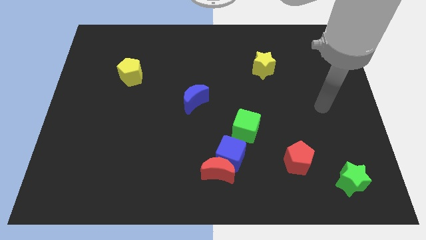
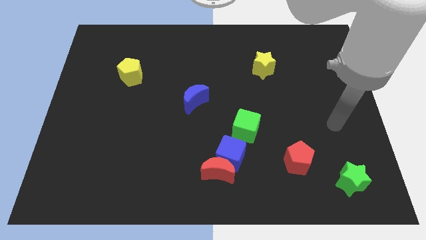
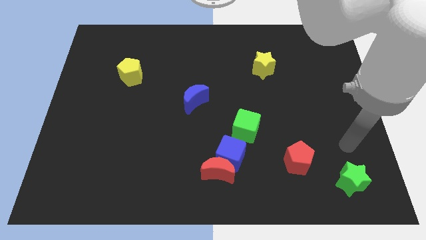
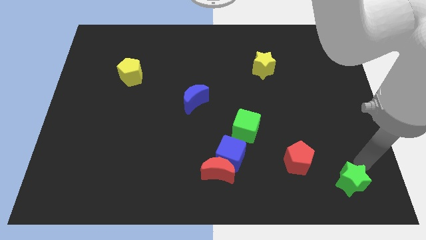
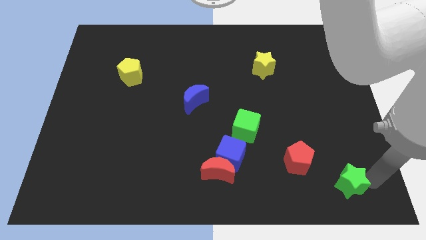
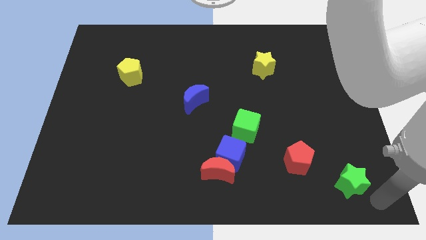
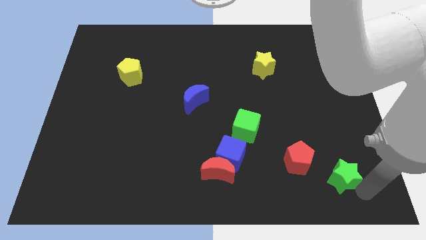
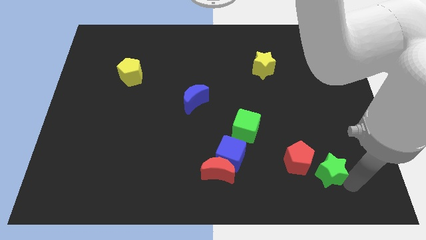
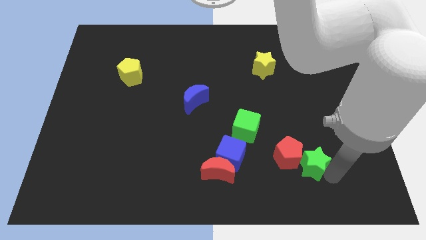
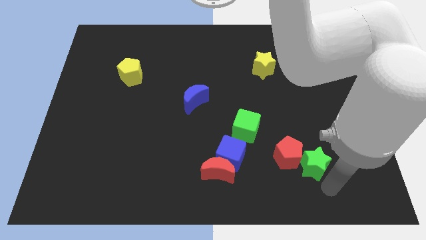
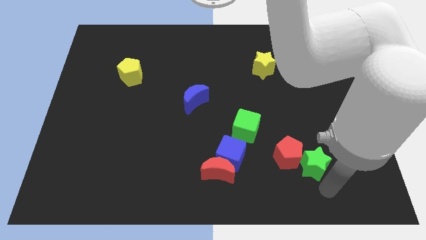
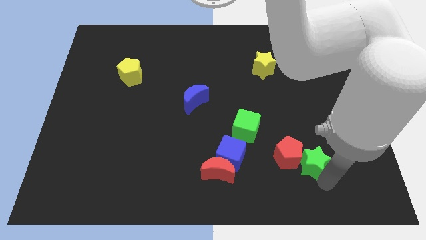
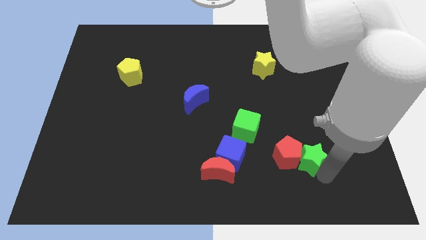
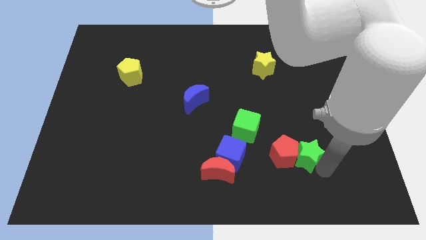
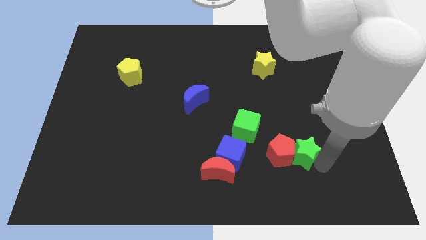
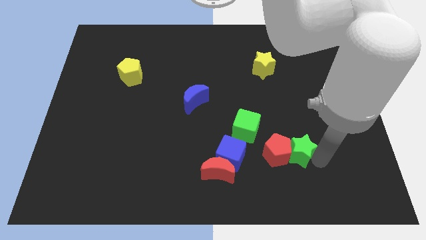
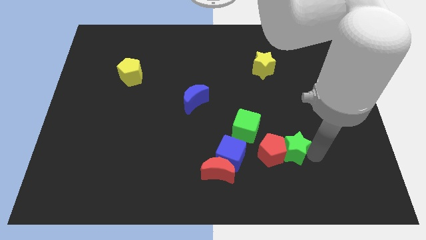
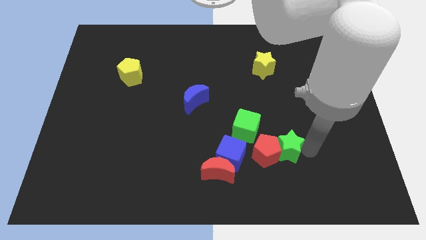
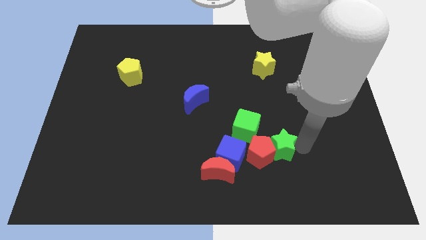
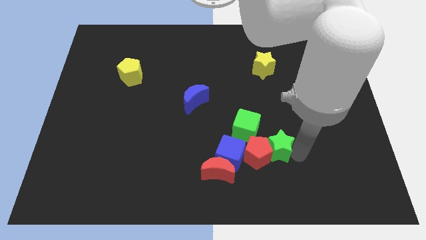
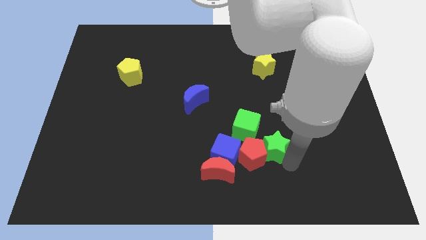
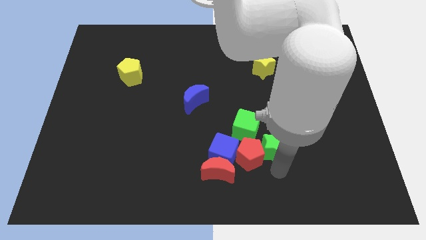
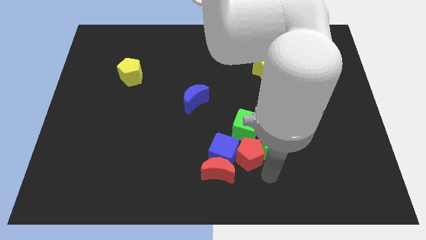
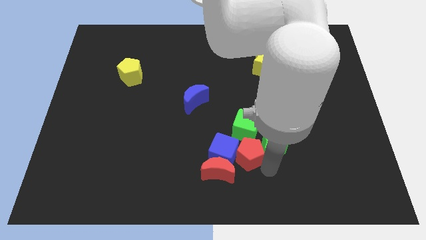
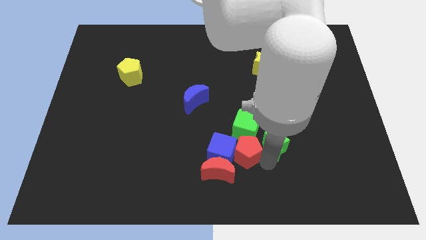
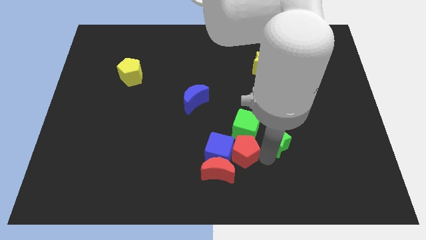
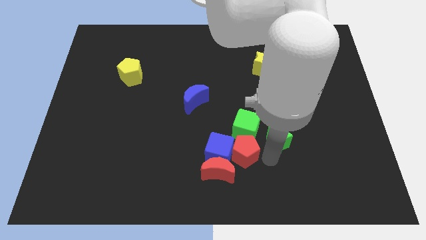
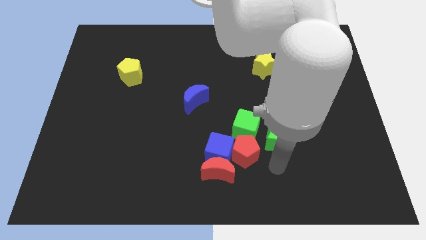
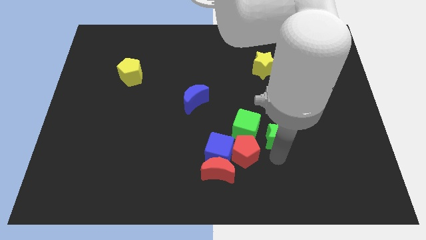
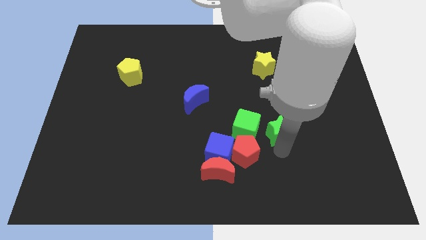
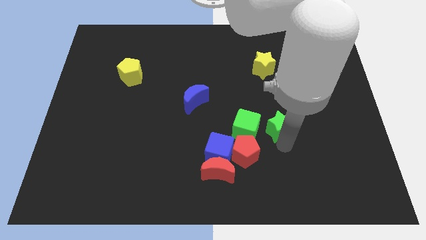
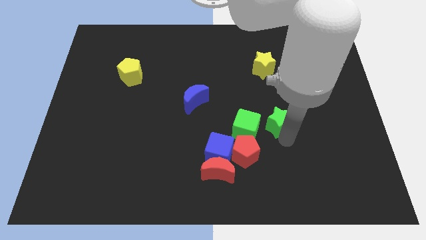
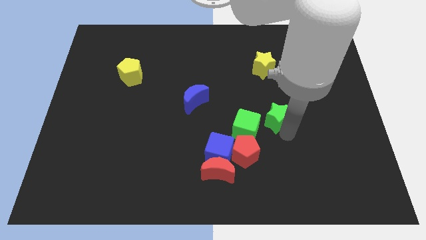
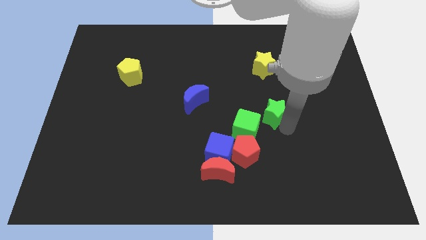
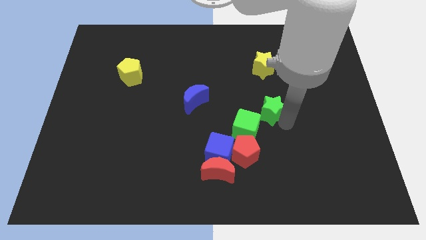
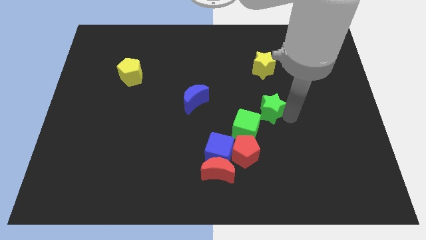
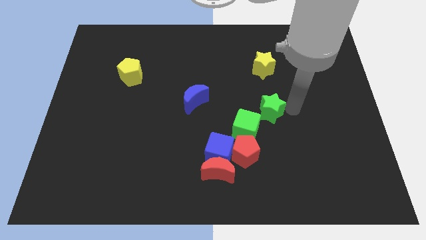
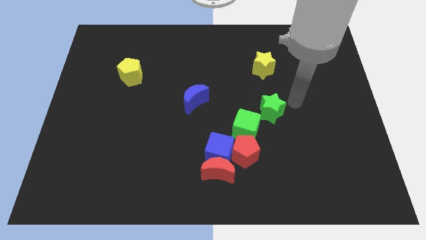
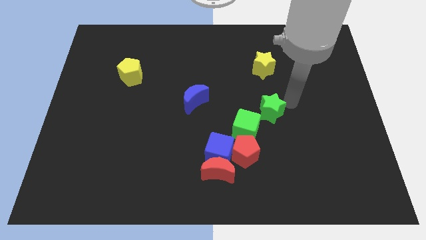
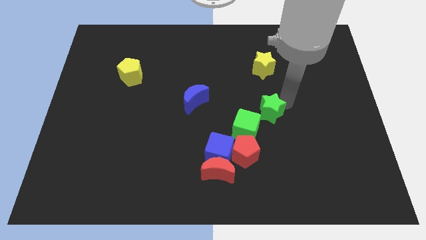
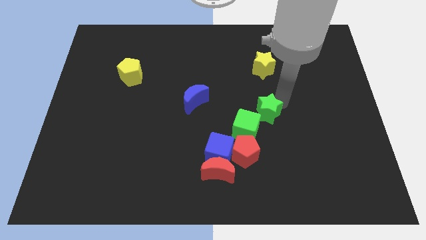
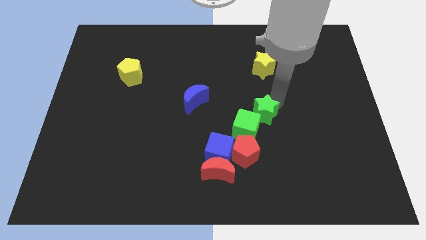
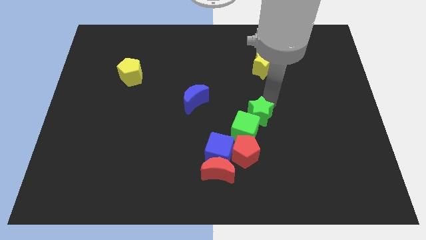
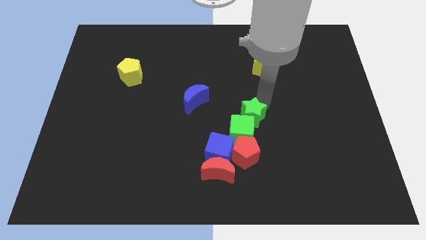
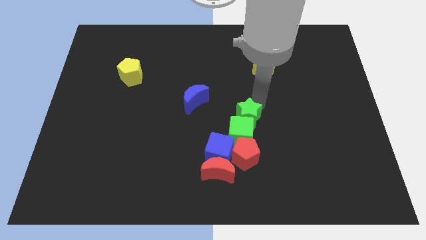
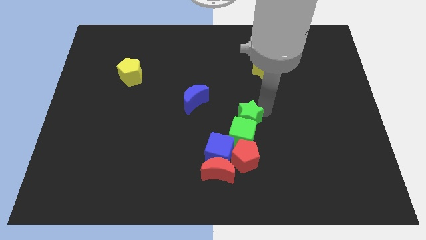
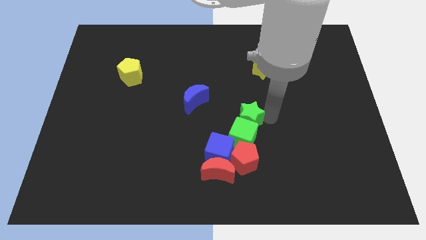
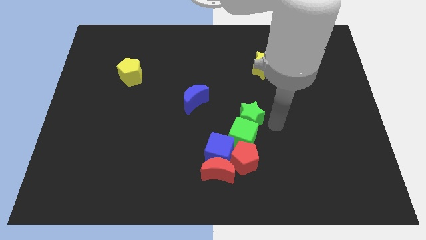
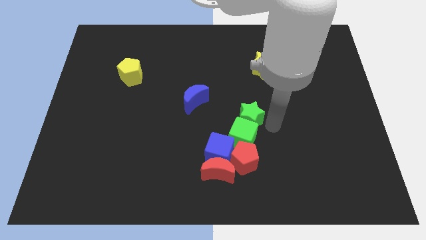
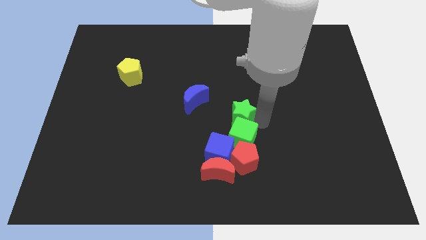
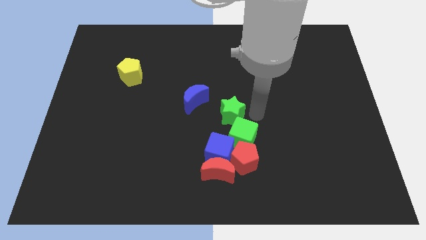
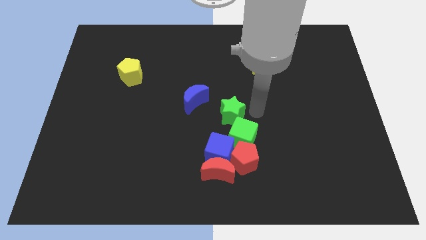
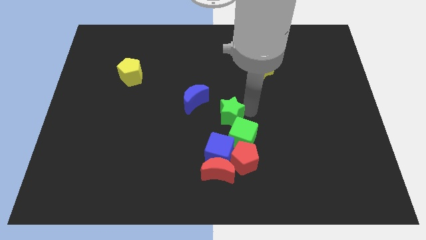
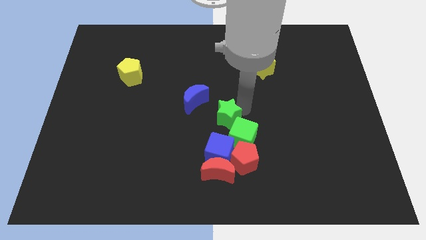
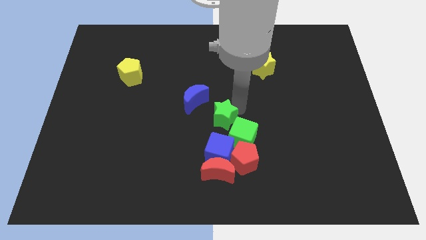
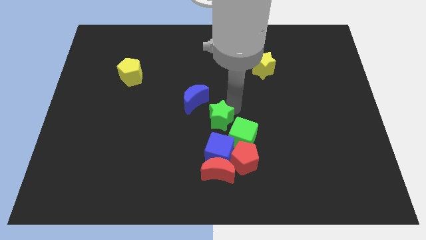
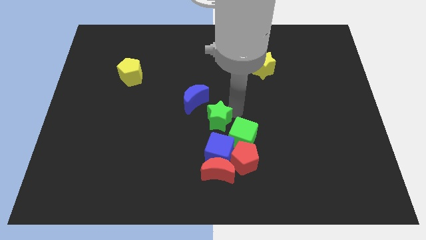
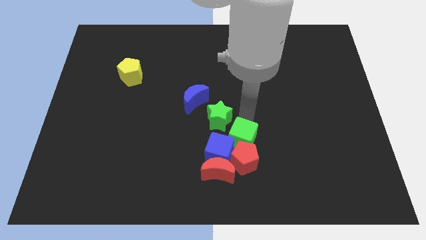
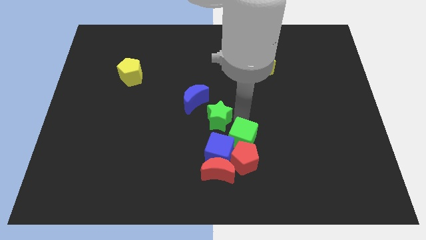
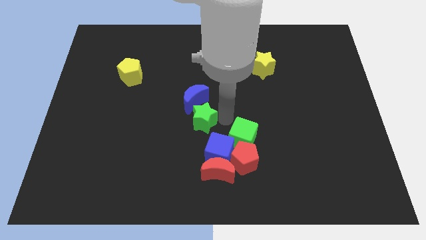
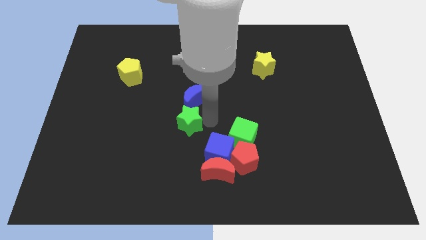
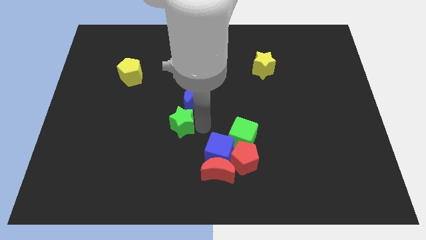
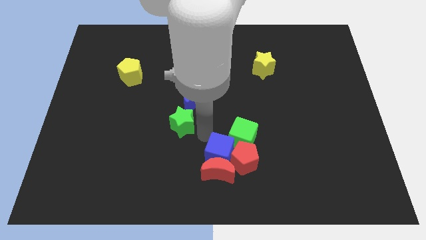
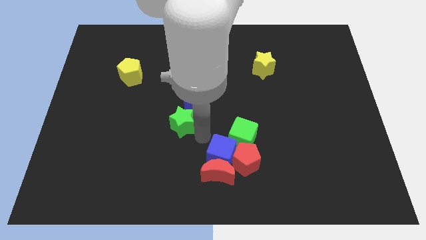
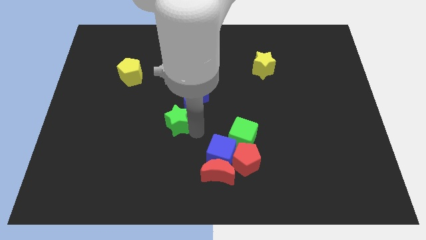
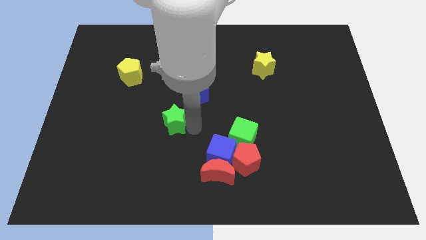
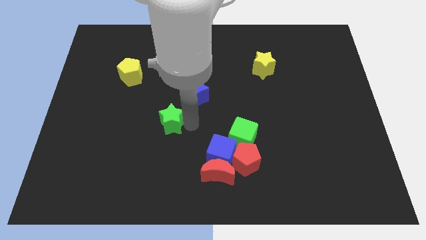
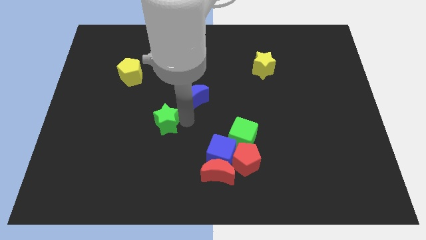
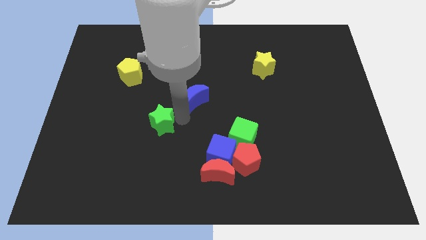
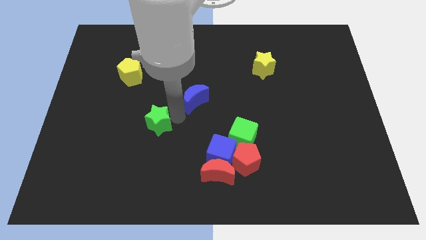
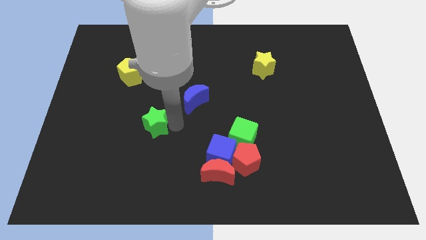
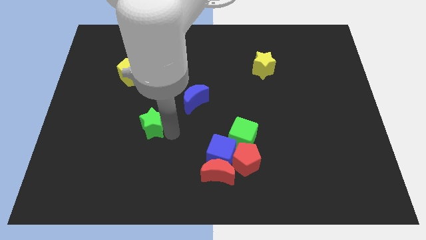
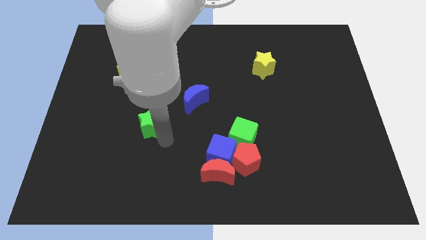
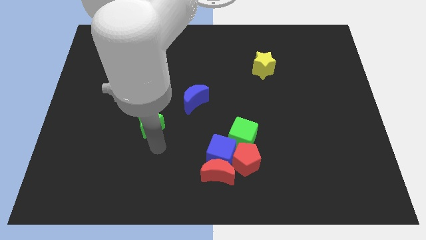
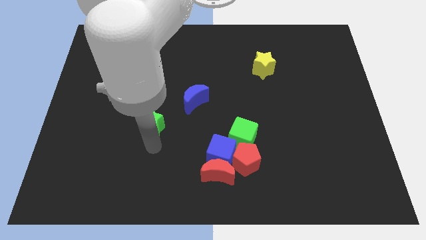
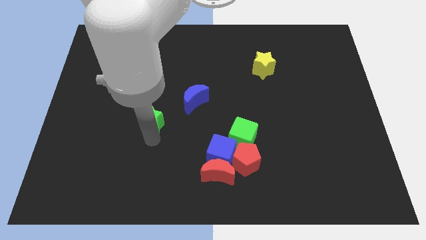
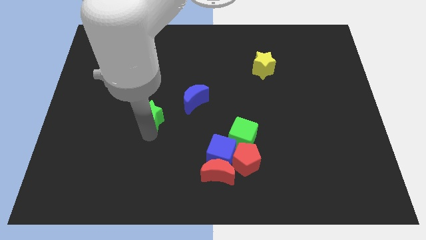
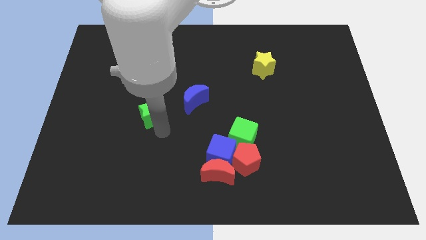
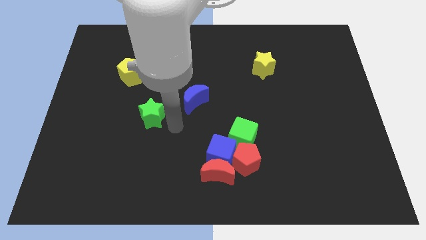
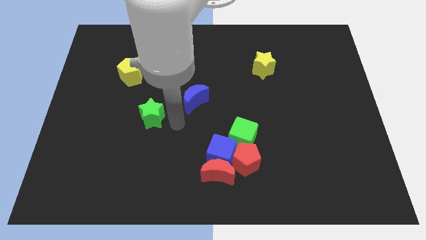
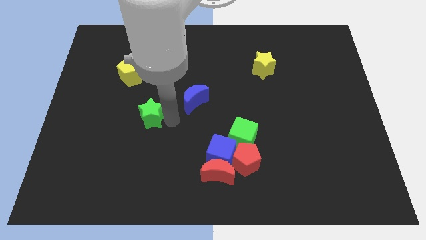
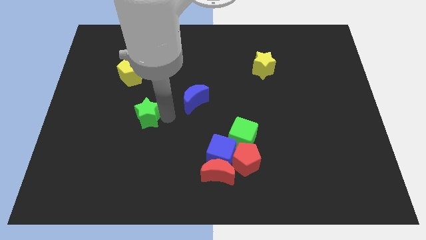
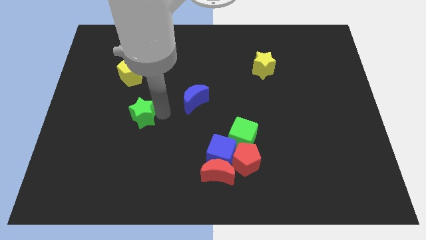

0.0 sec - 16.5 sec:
slide the green star to the bottom of the yellow pentagon

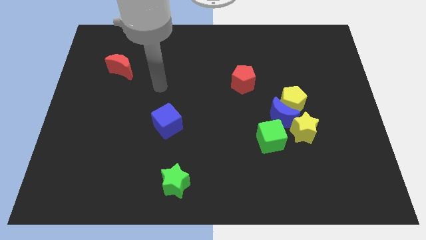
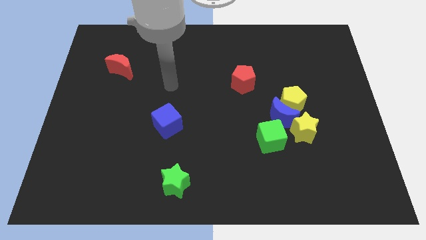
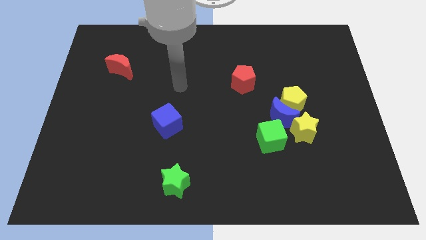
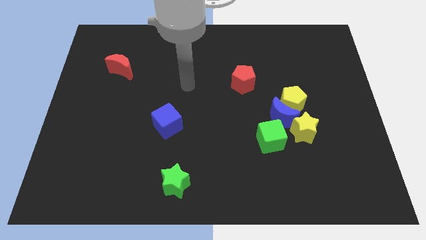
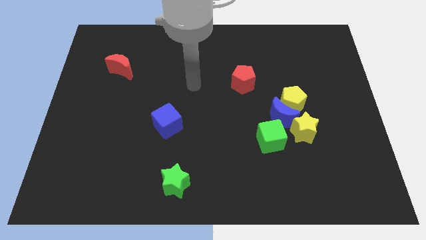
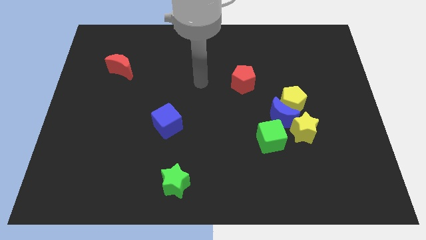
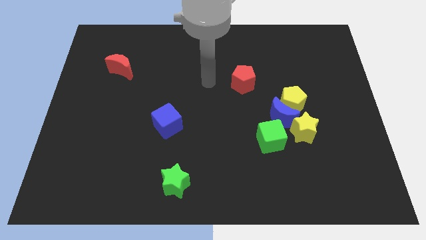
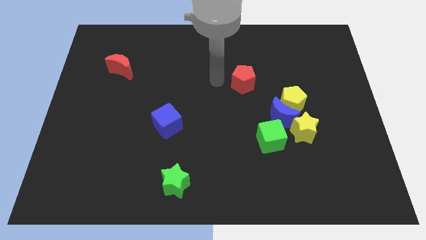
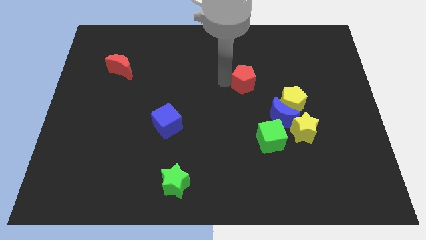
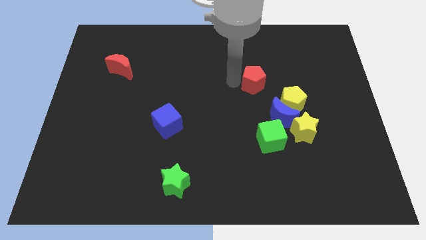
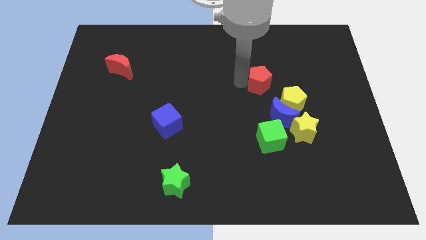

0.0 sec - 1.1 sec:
slide the red pentagon to the top side of the blue moon
